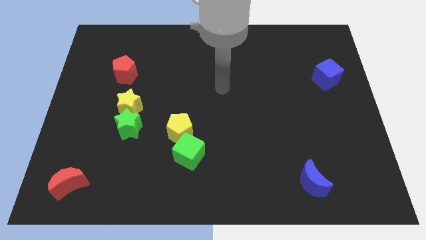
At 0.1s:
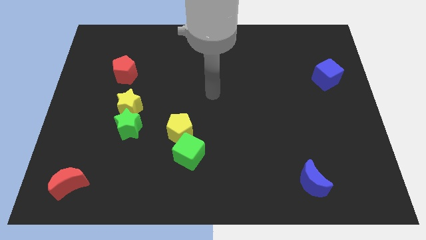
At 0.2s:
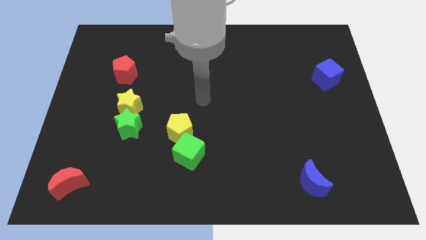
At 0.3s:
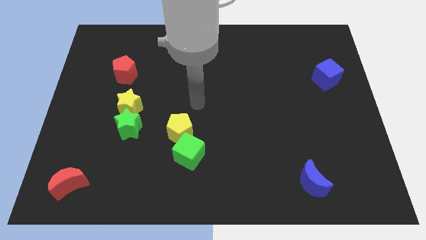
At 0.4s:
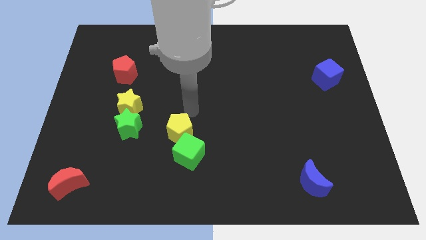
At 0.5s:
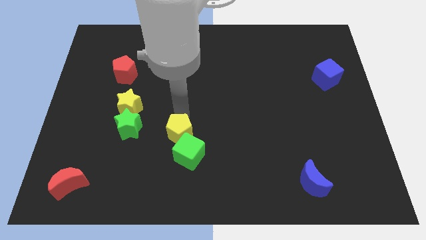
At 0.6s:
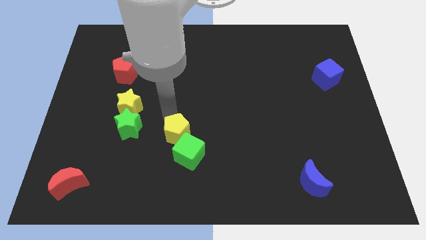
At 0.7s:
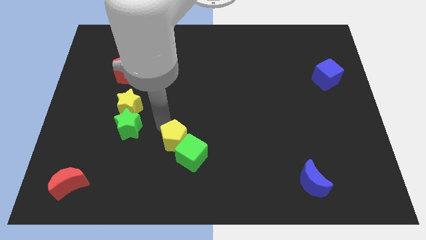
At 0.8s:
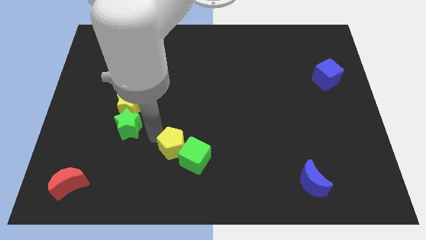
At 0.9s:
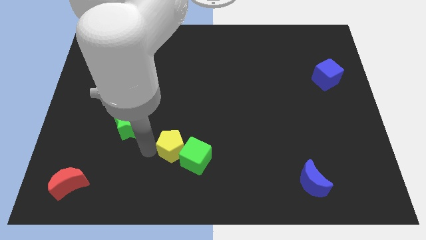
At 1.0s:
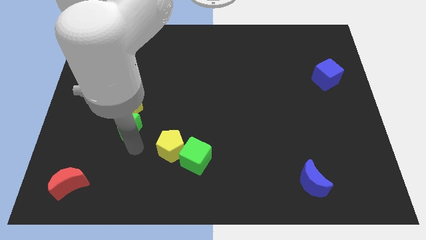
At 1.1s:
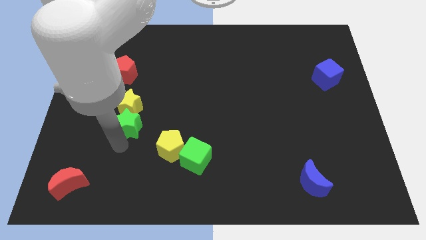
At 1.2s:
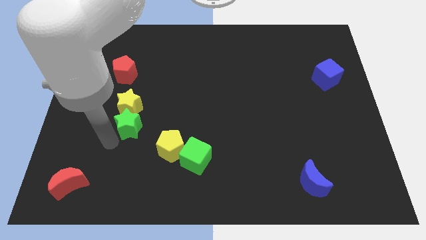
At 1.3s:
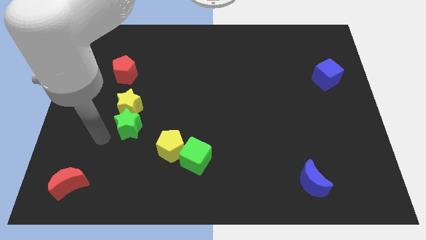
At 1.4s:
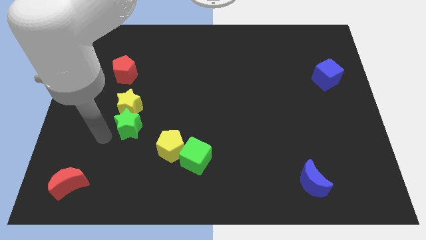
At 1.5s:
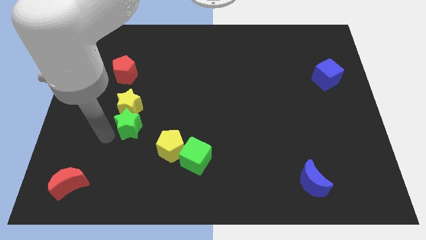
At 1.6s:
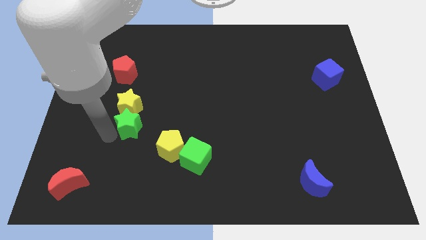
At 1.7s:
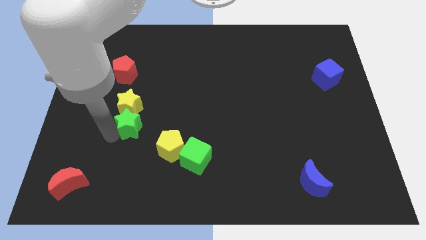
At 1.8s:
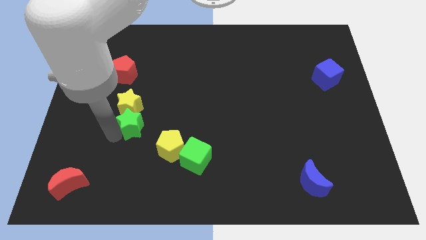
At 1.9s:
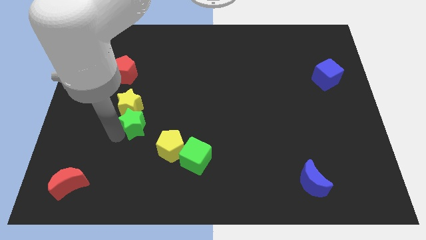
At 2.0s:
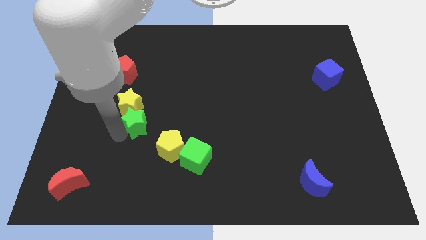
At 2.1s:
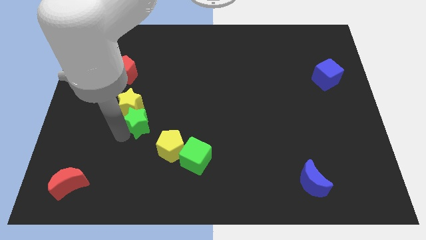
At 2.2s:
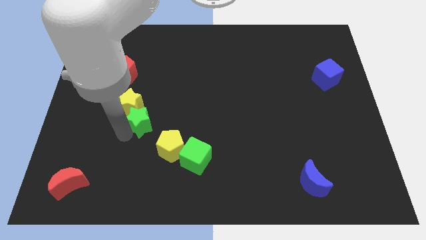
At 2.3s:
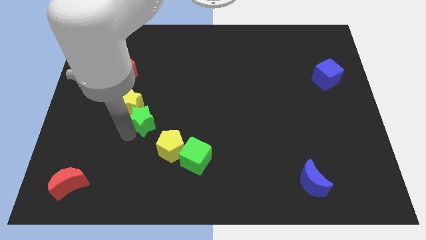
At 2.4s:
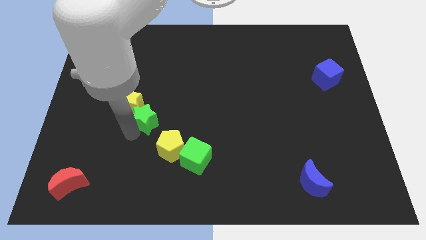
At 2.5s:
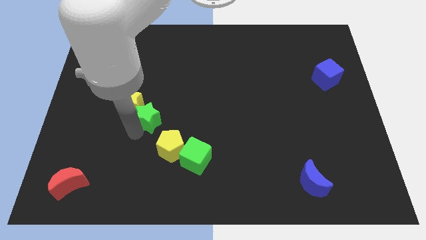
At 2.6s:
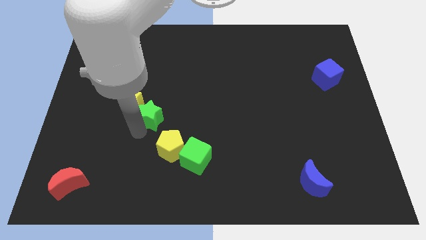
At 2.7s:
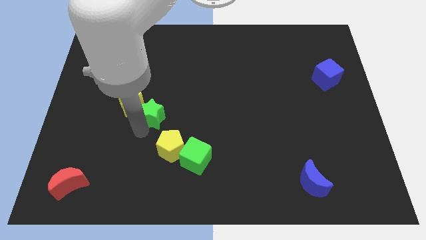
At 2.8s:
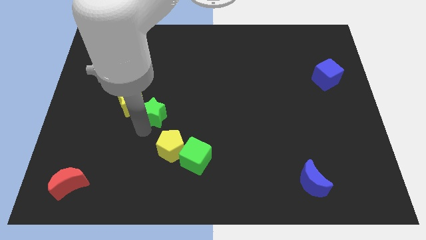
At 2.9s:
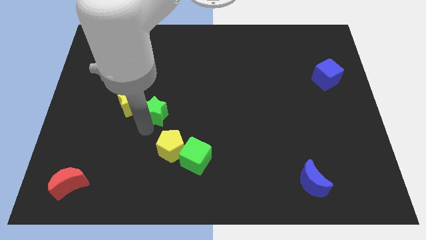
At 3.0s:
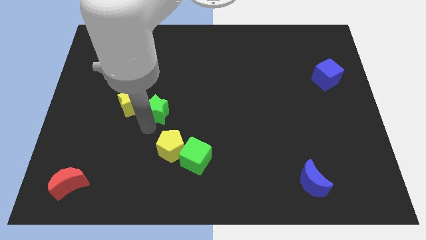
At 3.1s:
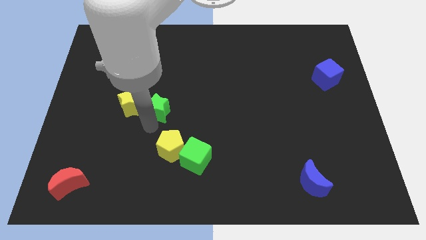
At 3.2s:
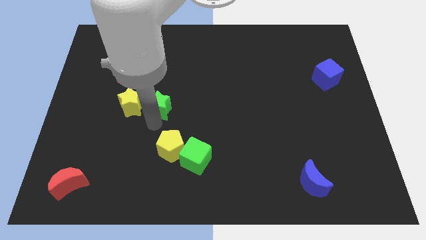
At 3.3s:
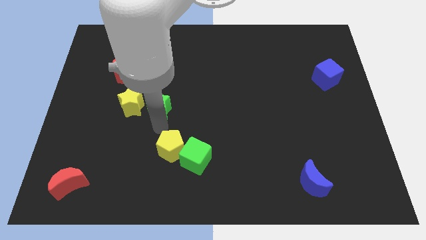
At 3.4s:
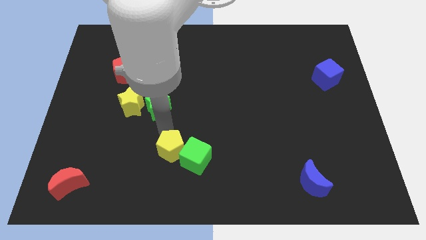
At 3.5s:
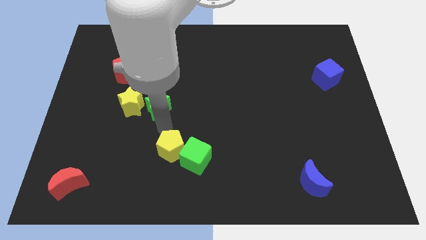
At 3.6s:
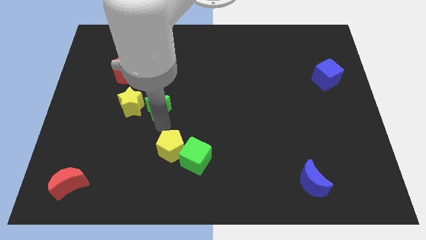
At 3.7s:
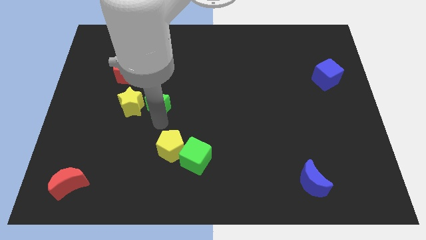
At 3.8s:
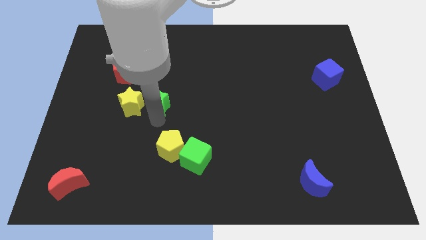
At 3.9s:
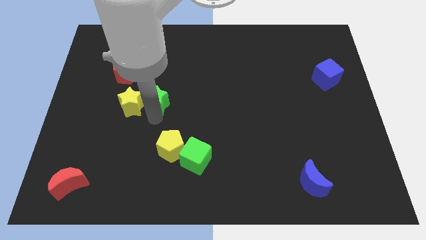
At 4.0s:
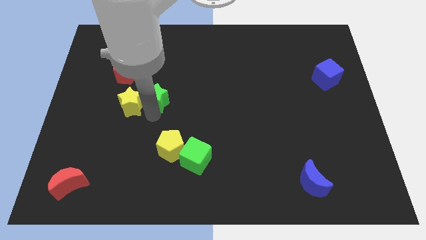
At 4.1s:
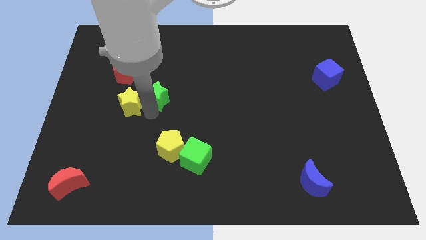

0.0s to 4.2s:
slightly push the green star up

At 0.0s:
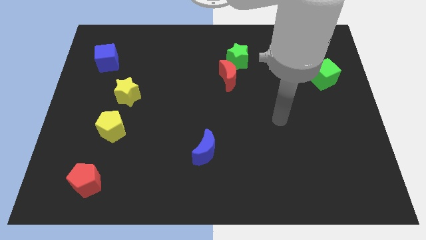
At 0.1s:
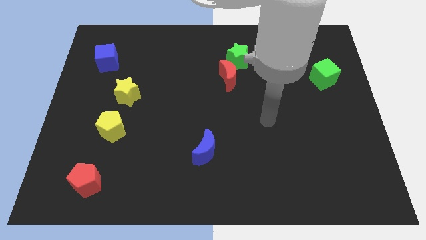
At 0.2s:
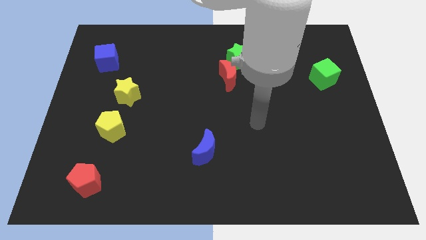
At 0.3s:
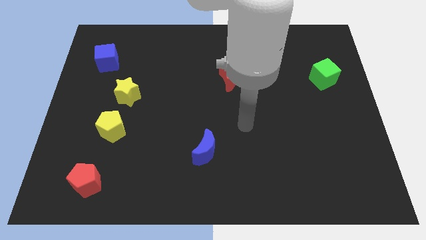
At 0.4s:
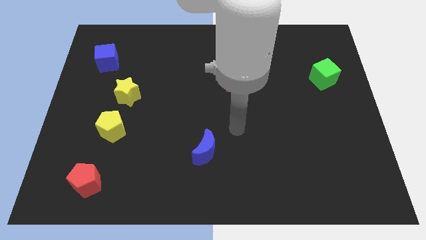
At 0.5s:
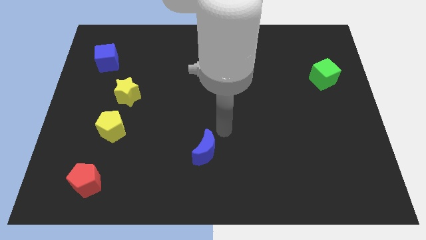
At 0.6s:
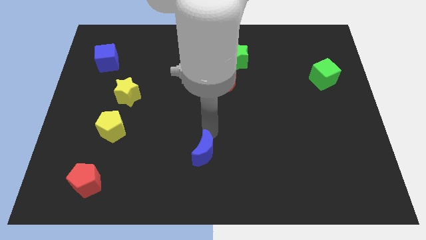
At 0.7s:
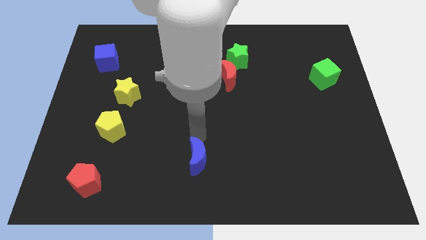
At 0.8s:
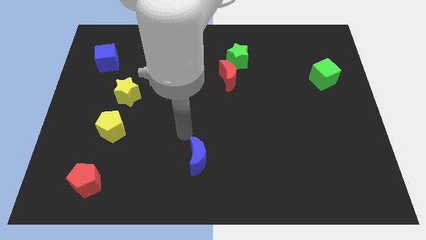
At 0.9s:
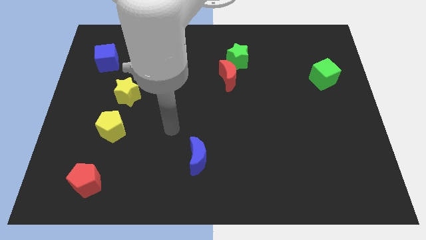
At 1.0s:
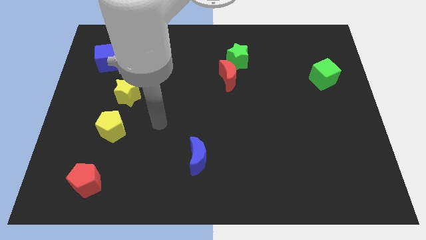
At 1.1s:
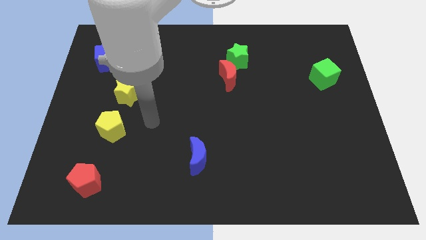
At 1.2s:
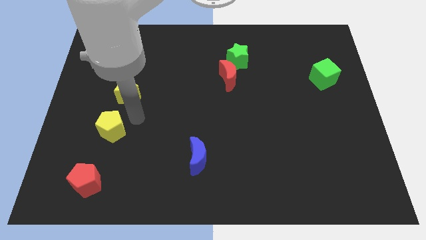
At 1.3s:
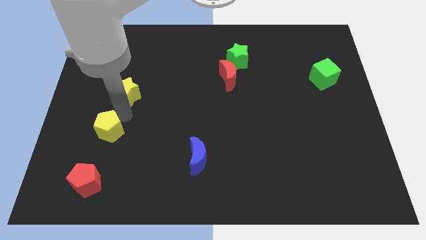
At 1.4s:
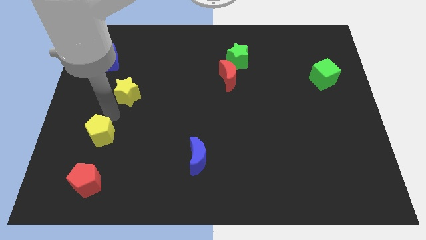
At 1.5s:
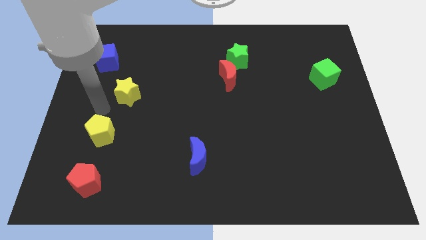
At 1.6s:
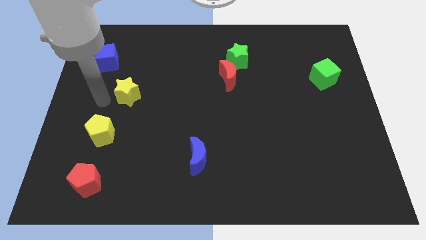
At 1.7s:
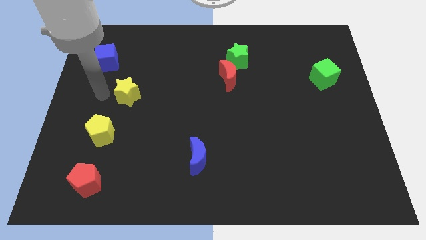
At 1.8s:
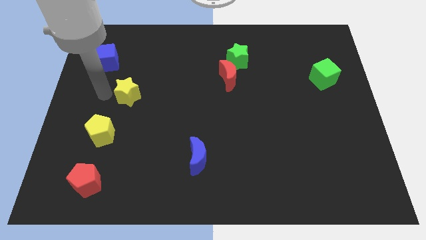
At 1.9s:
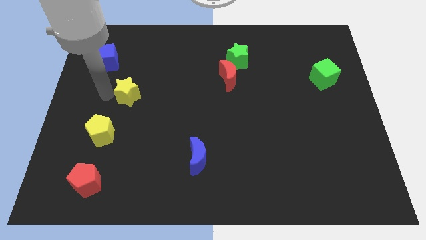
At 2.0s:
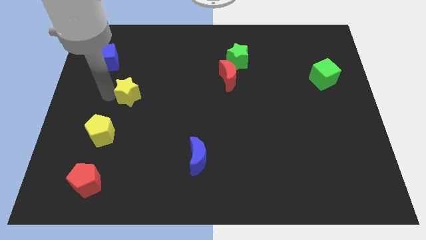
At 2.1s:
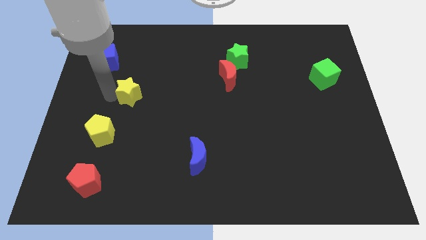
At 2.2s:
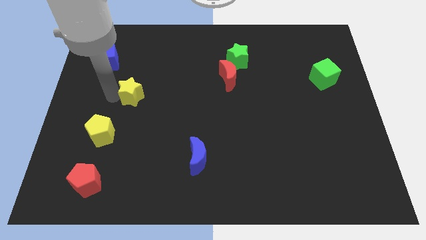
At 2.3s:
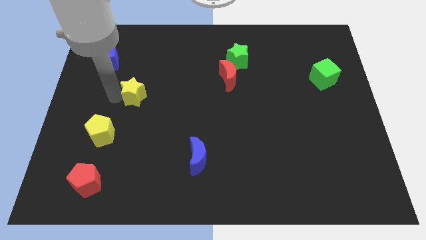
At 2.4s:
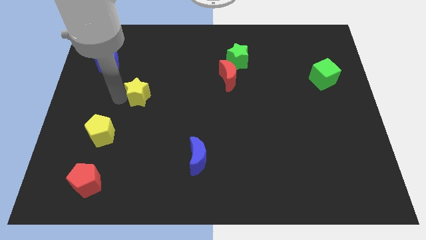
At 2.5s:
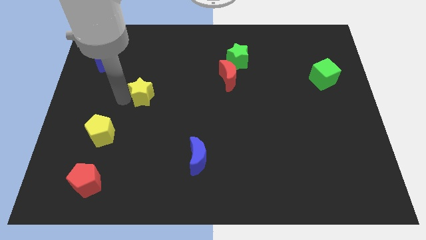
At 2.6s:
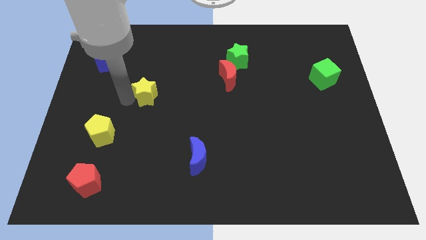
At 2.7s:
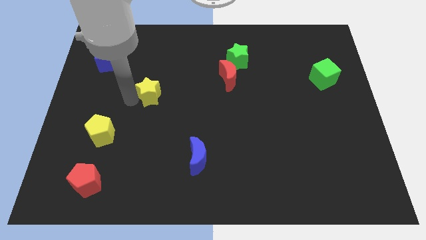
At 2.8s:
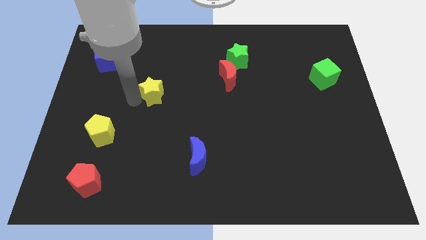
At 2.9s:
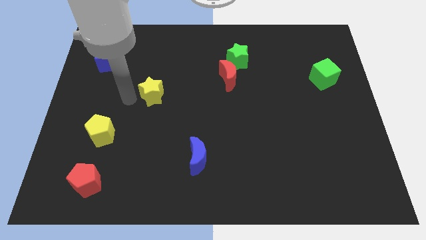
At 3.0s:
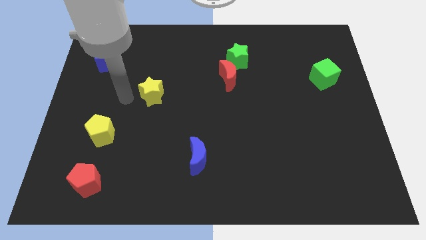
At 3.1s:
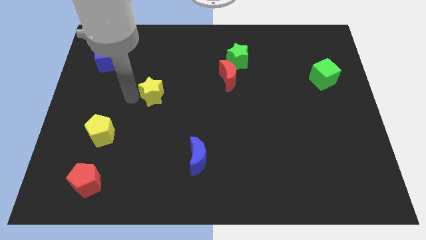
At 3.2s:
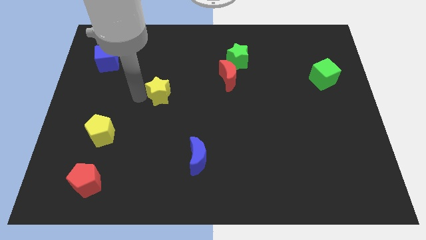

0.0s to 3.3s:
slightly move the yellow star to the right

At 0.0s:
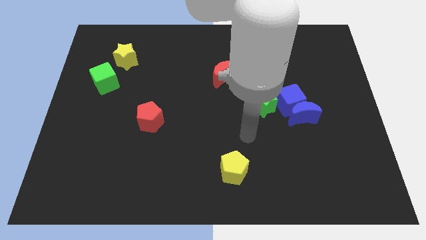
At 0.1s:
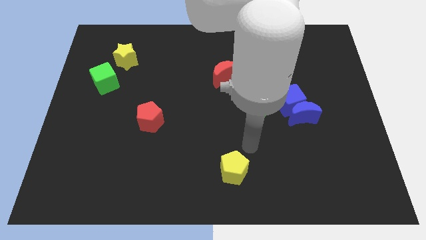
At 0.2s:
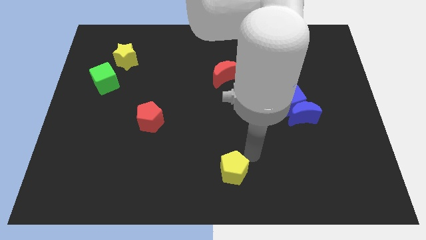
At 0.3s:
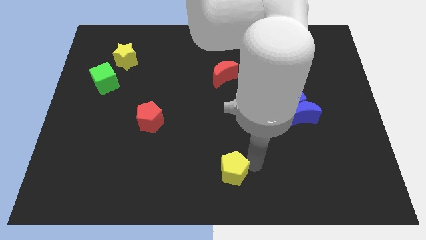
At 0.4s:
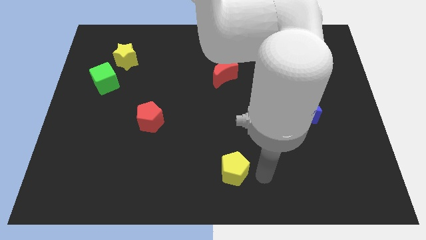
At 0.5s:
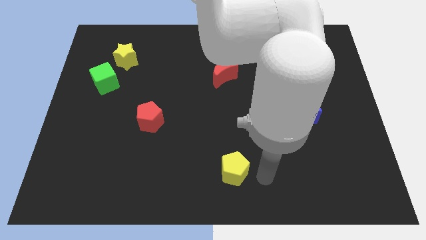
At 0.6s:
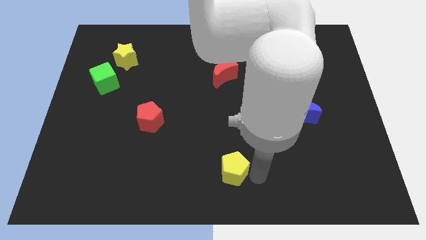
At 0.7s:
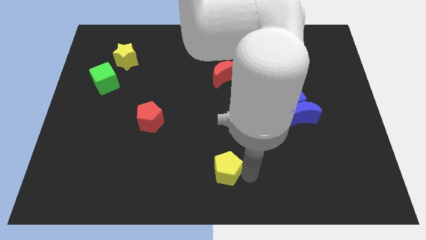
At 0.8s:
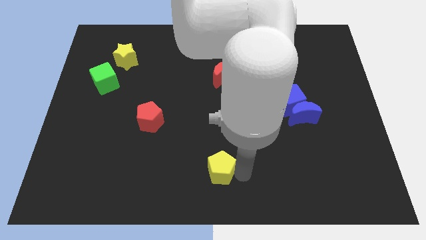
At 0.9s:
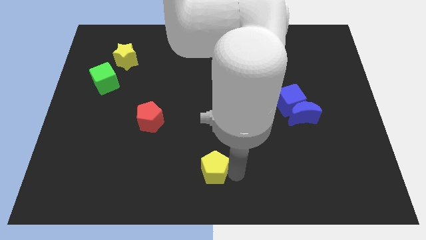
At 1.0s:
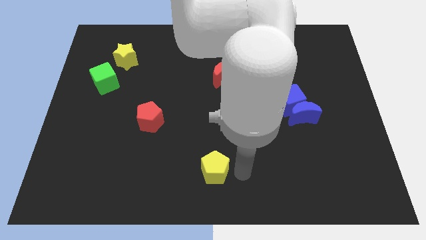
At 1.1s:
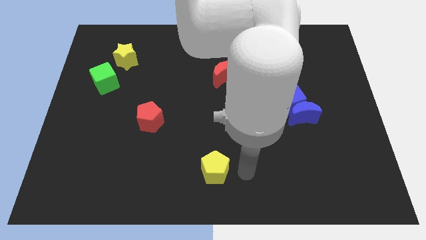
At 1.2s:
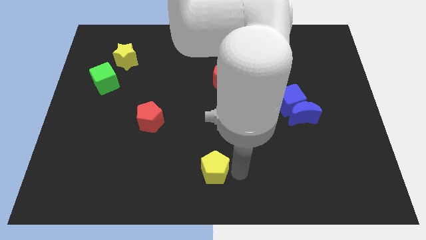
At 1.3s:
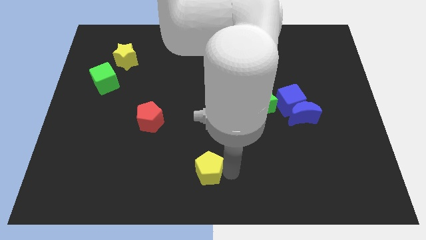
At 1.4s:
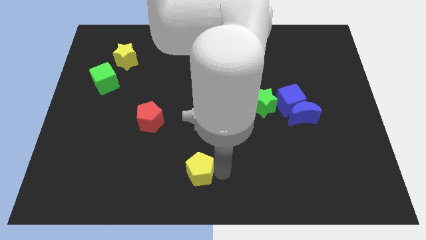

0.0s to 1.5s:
slightly slide the yellow pentagon left
